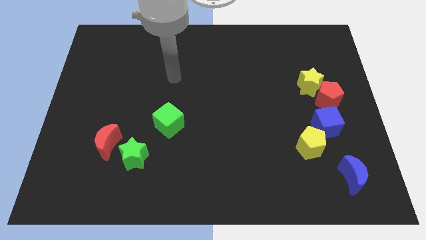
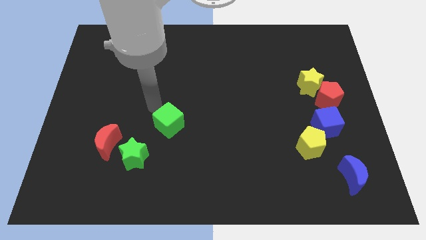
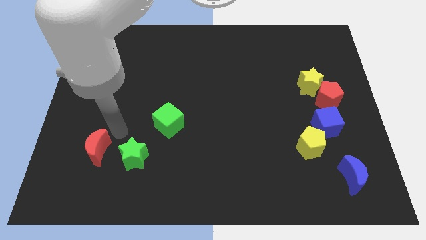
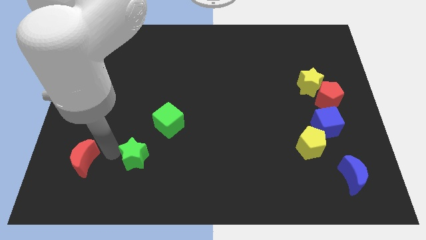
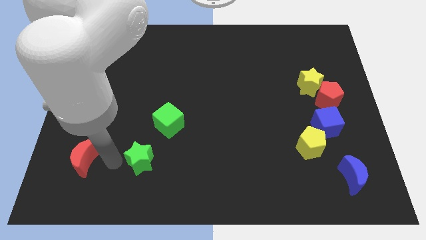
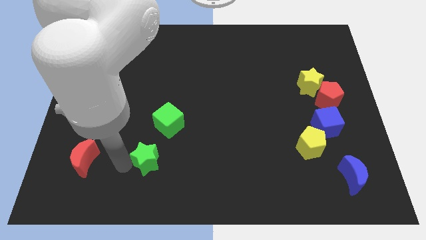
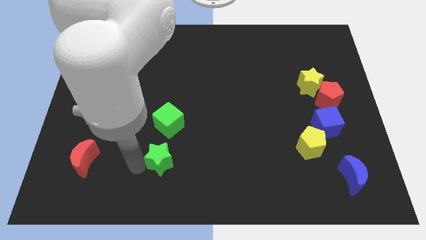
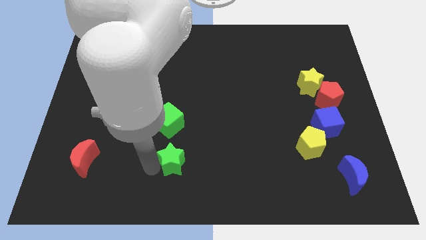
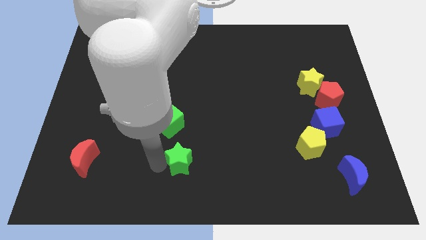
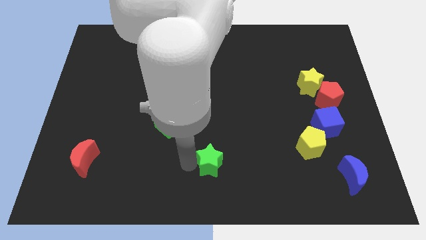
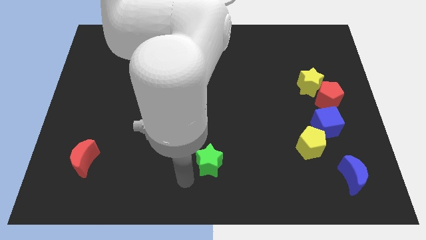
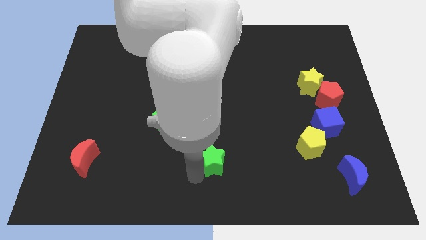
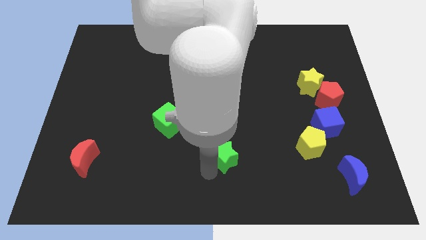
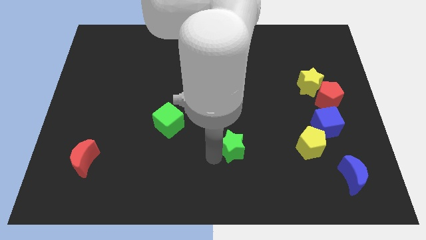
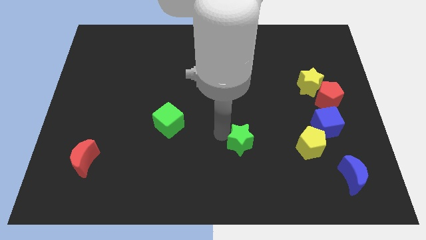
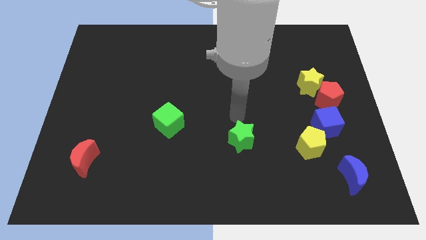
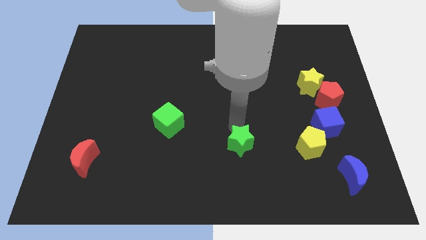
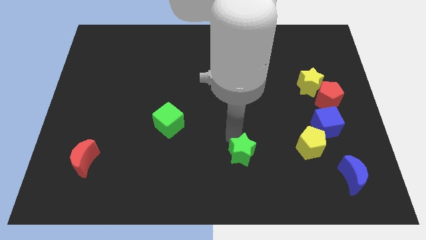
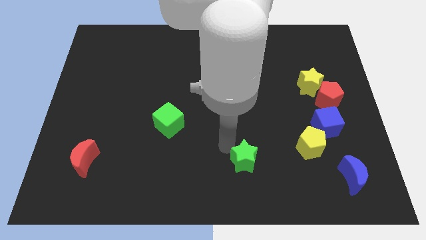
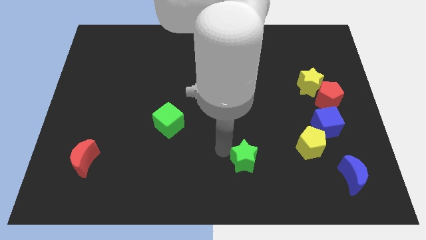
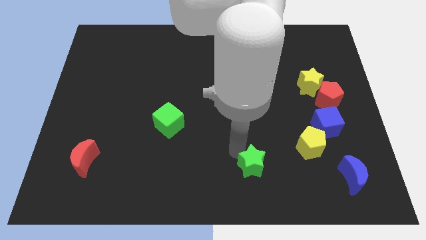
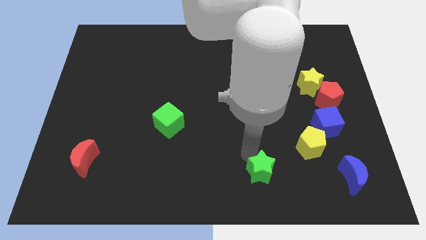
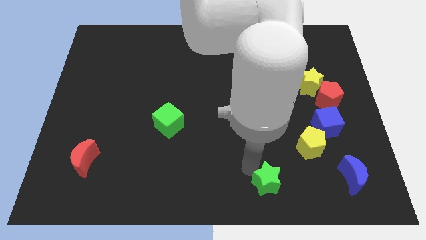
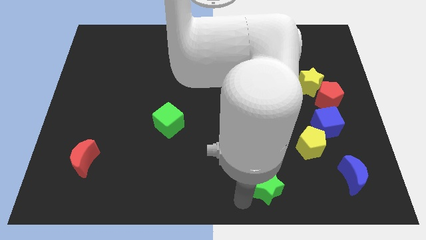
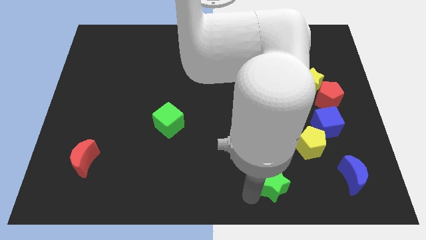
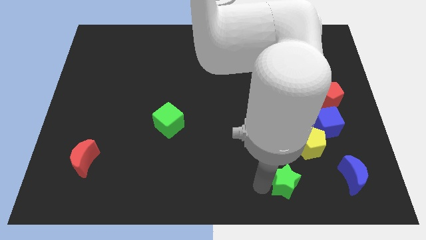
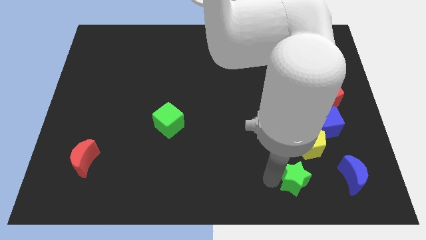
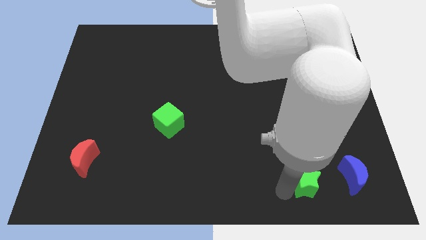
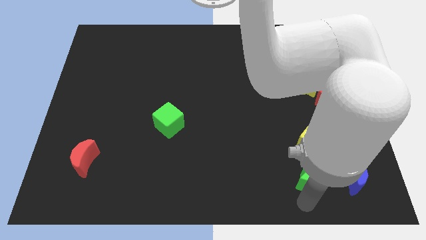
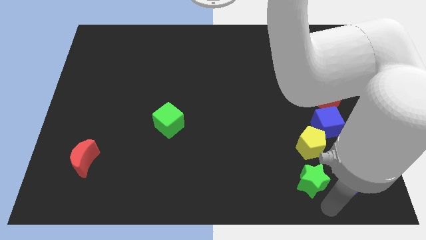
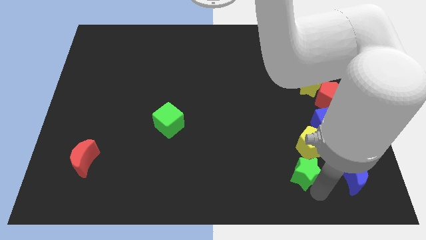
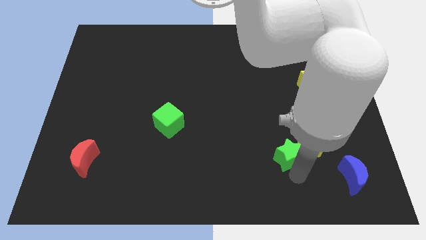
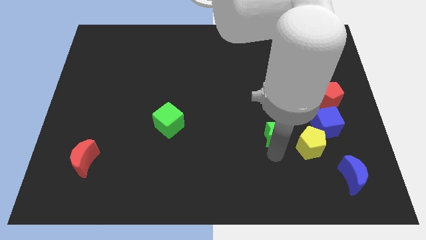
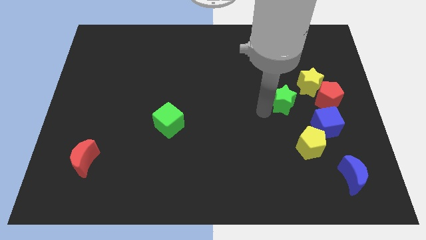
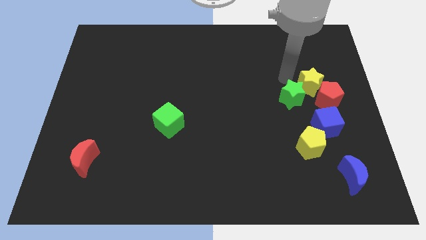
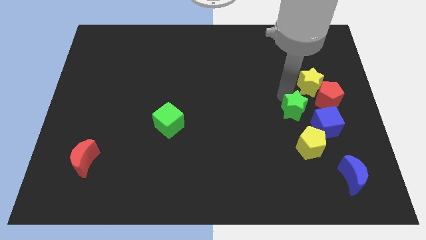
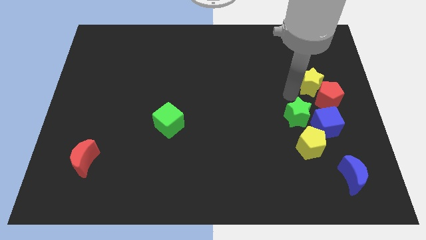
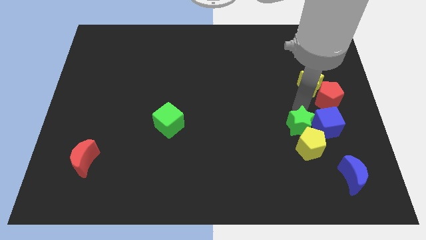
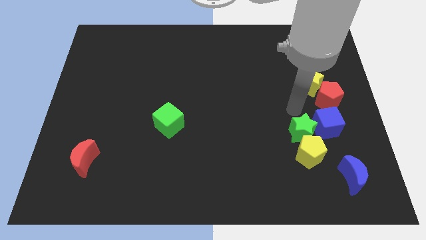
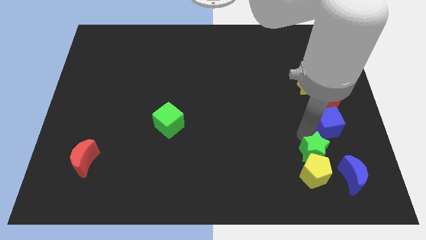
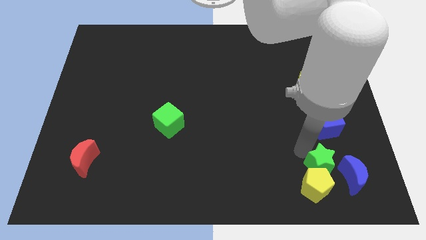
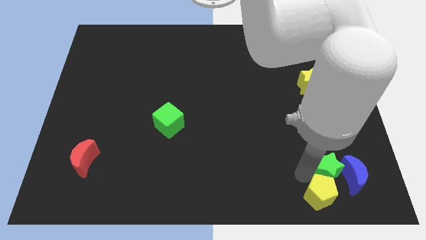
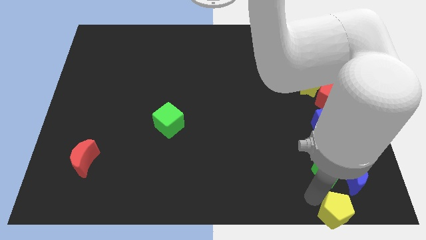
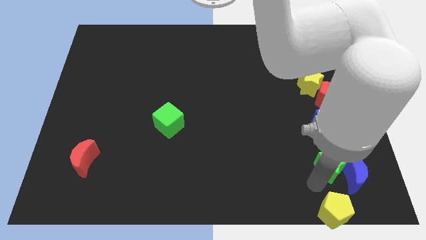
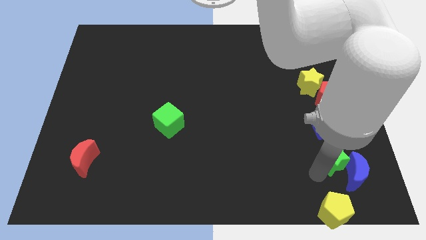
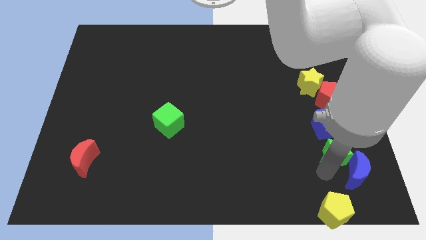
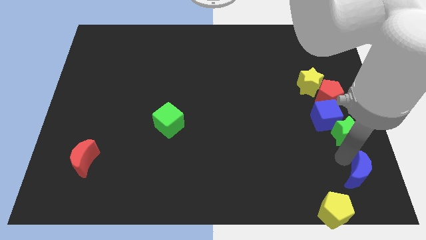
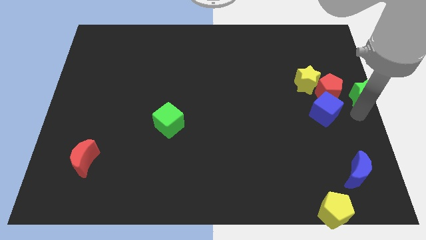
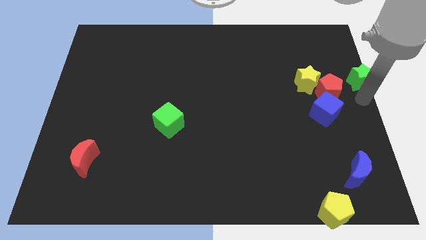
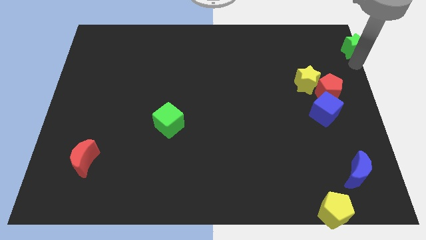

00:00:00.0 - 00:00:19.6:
put the green star to the top right of the board

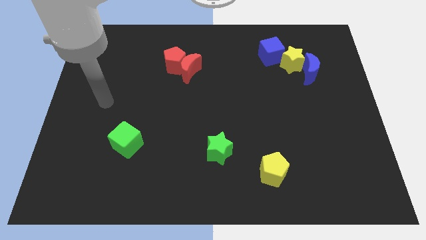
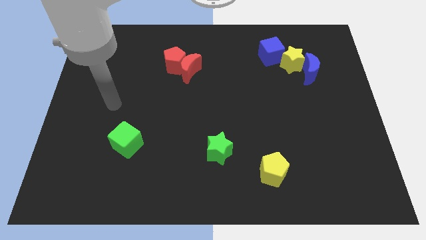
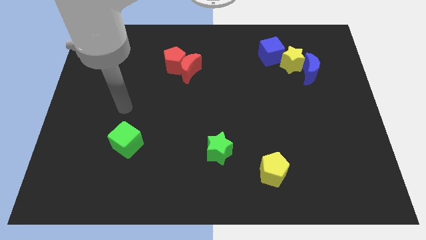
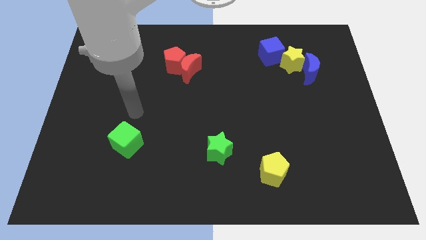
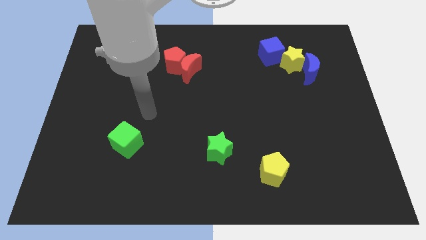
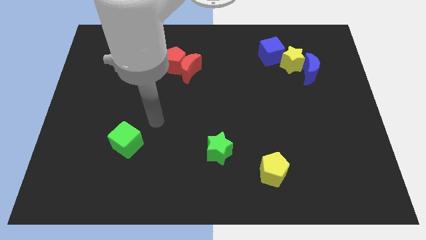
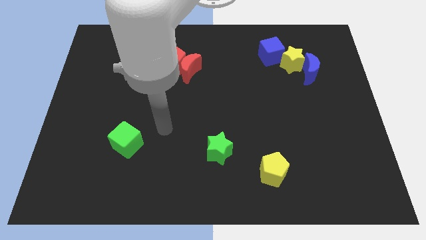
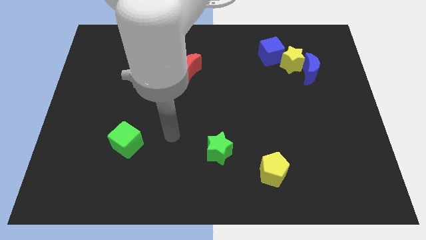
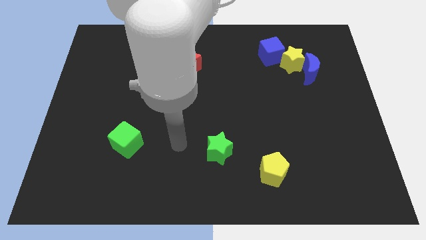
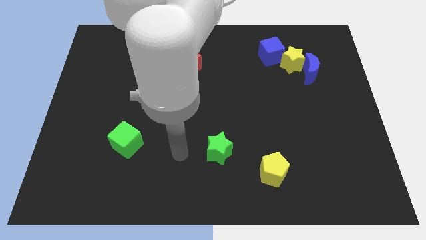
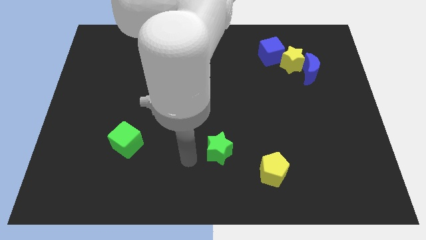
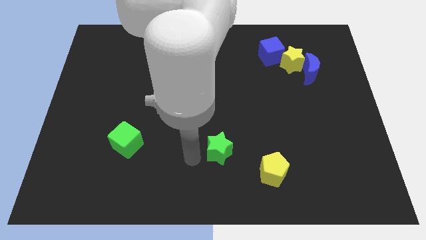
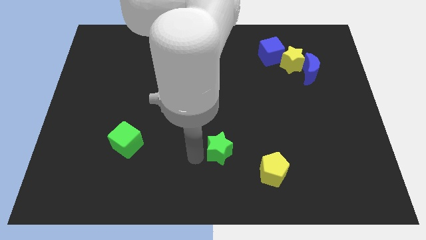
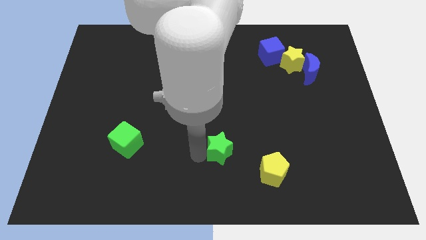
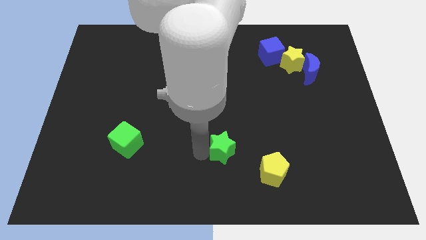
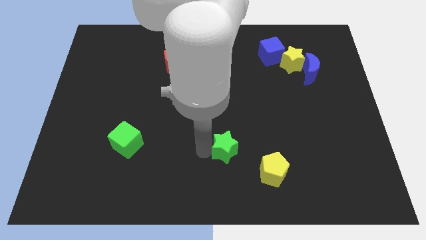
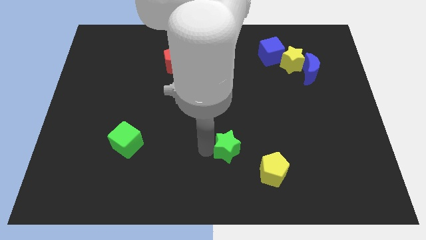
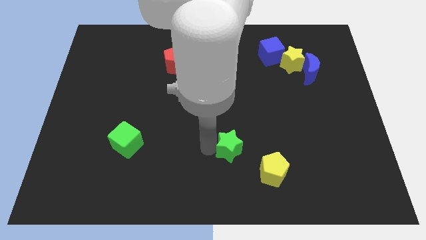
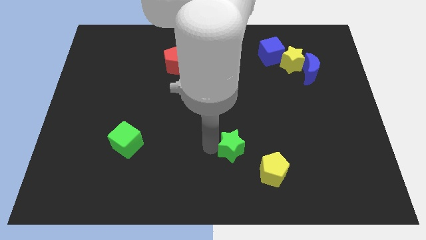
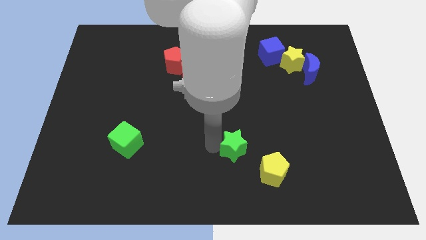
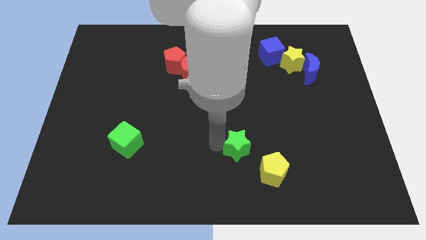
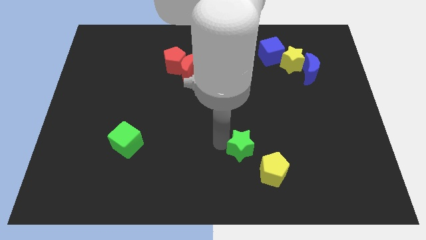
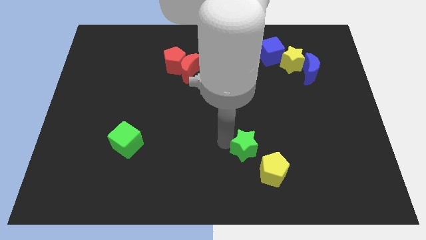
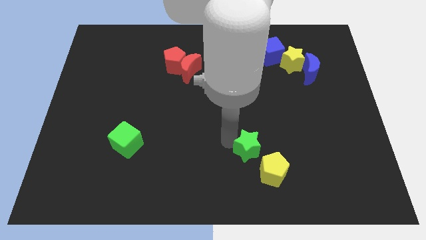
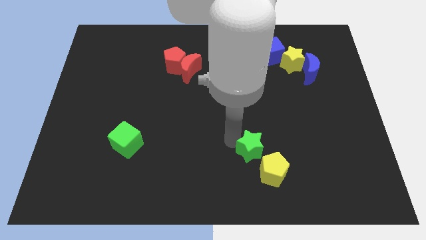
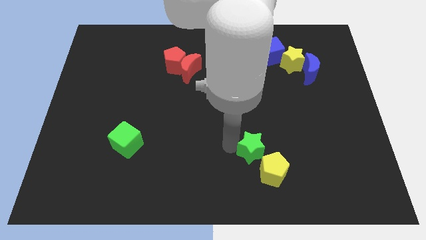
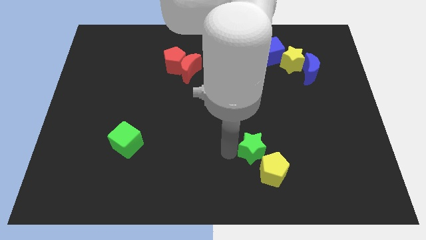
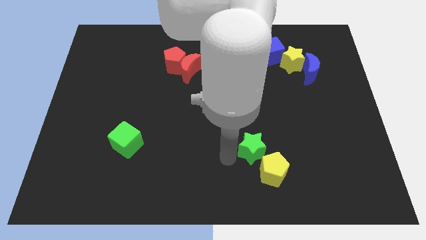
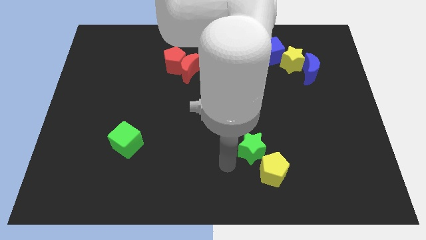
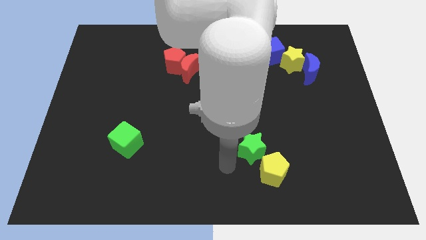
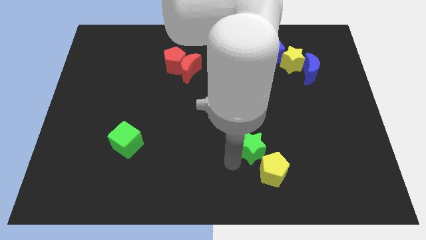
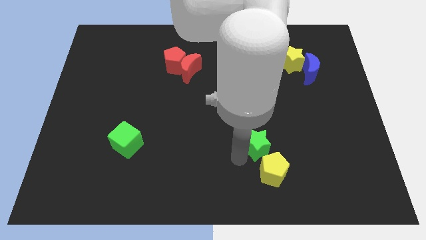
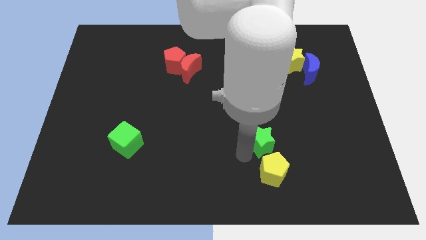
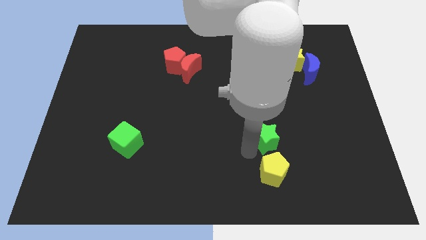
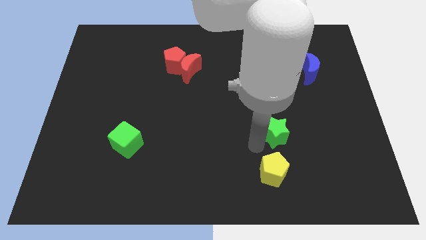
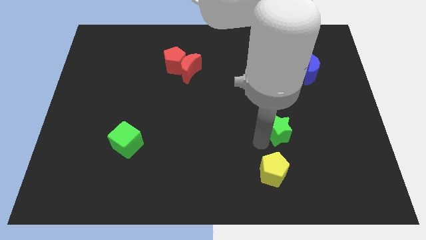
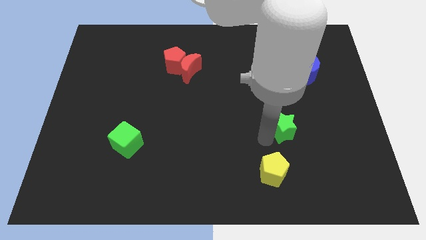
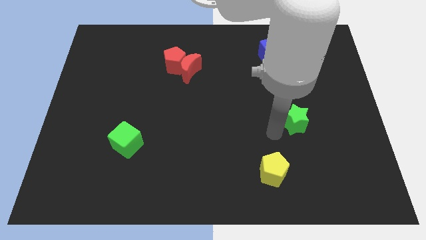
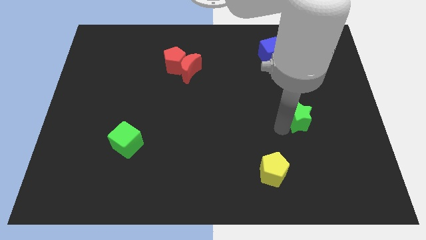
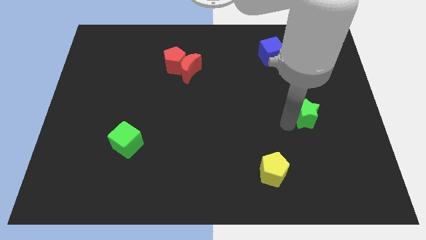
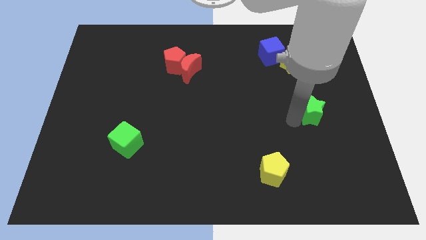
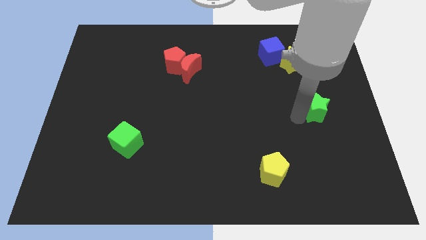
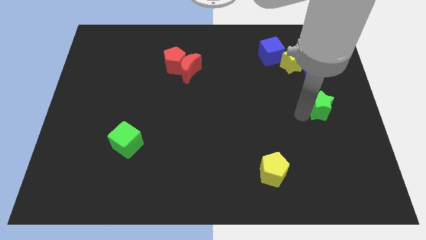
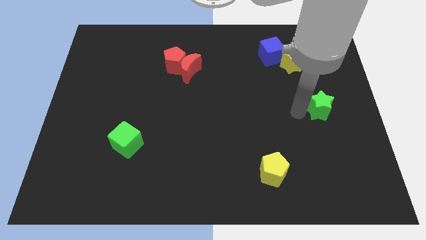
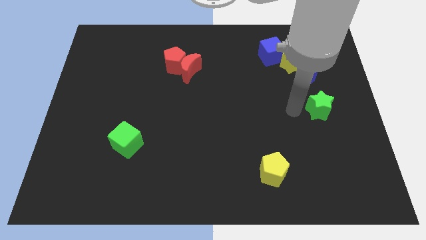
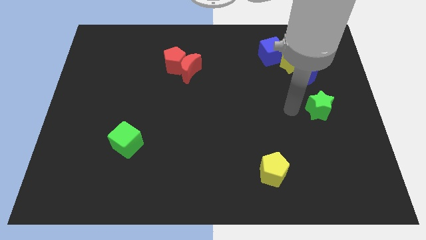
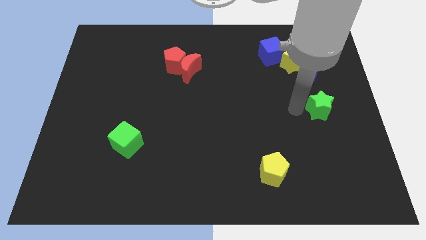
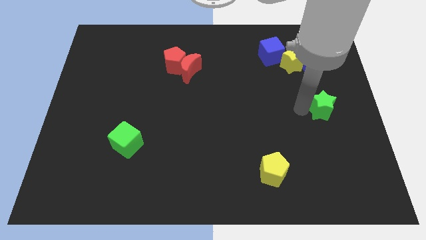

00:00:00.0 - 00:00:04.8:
put the green star to the right side
